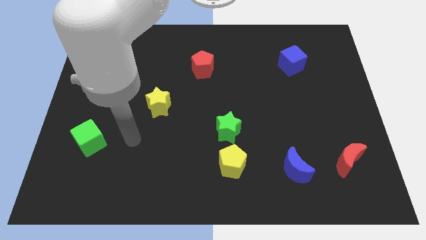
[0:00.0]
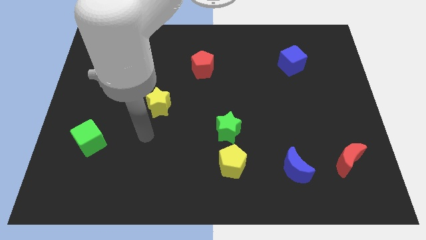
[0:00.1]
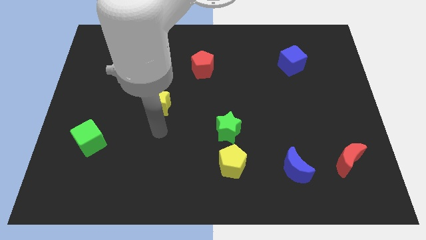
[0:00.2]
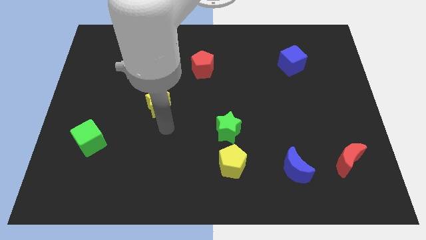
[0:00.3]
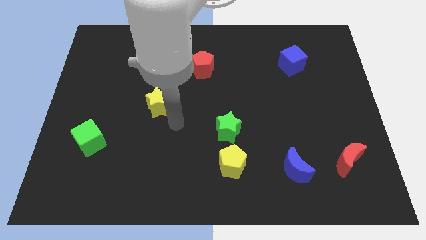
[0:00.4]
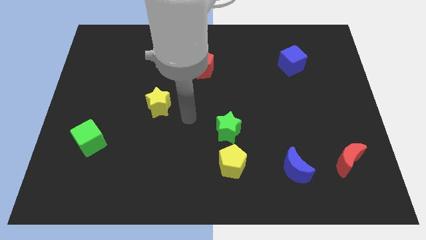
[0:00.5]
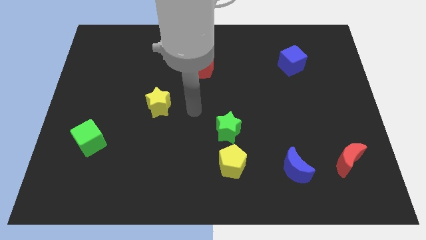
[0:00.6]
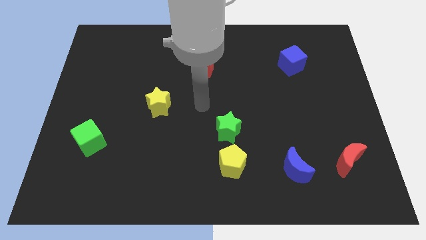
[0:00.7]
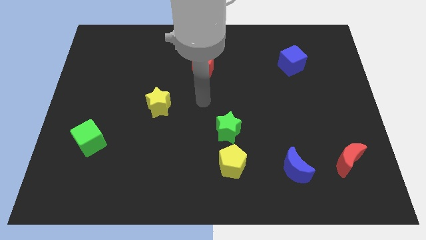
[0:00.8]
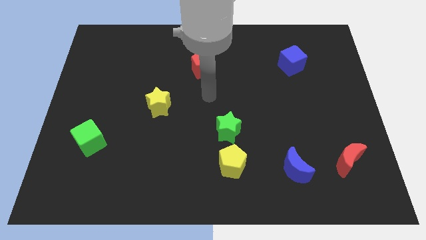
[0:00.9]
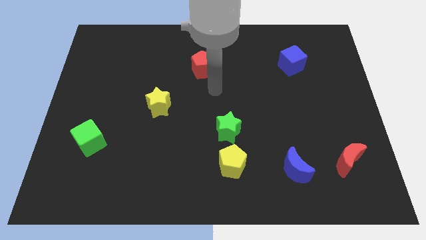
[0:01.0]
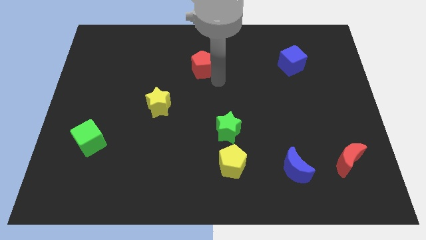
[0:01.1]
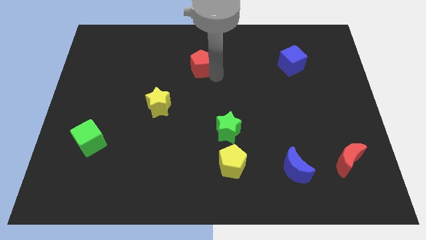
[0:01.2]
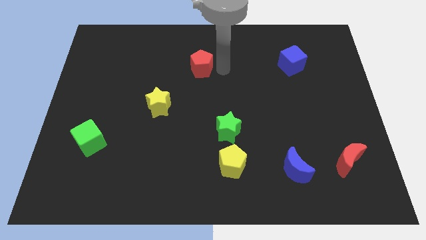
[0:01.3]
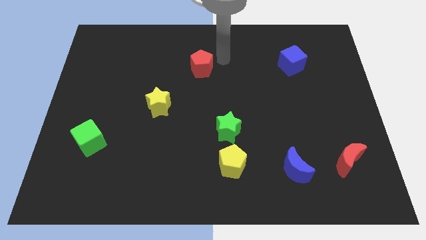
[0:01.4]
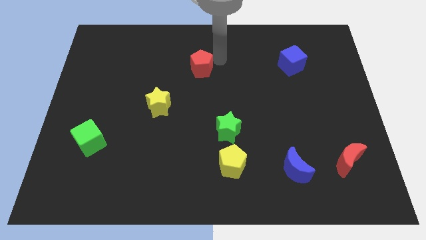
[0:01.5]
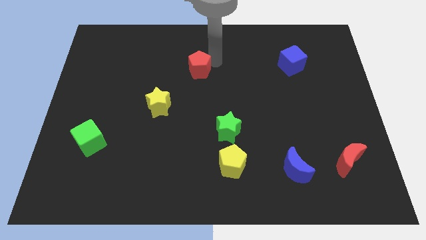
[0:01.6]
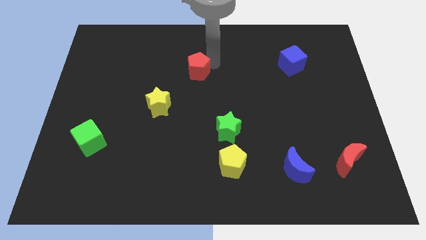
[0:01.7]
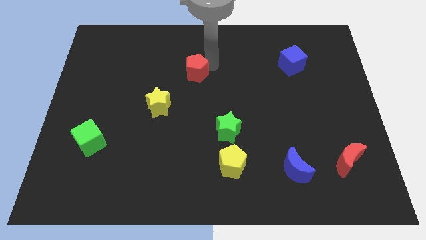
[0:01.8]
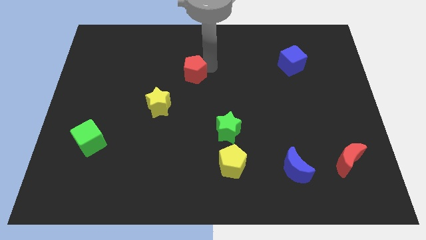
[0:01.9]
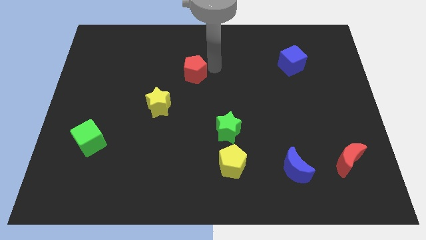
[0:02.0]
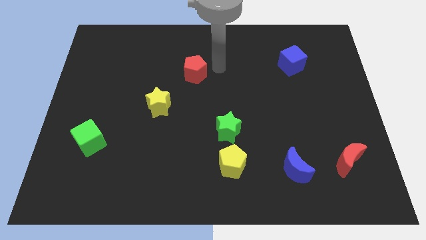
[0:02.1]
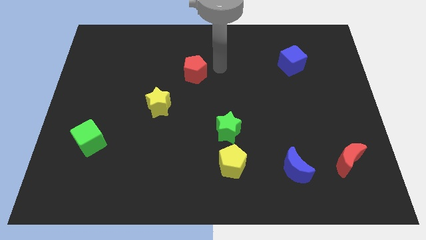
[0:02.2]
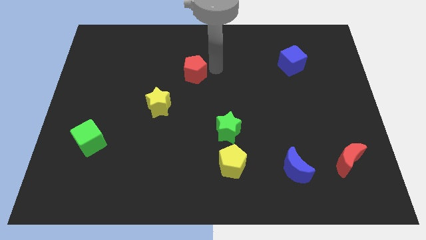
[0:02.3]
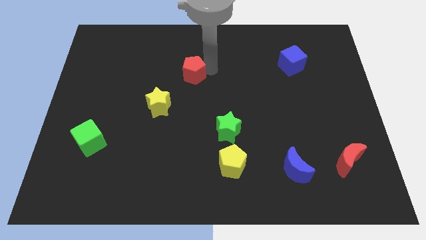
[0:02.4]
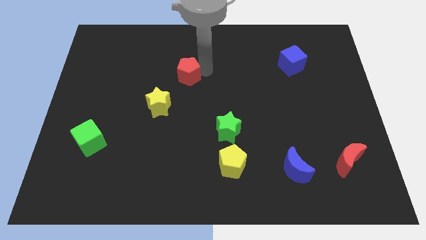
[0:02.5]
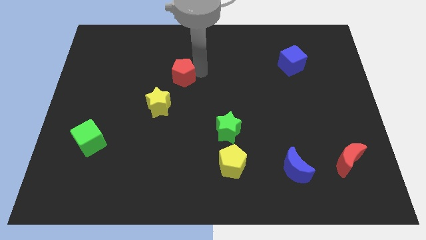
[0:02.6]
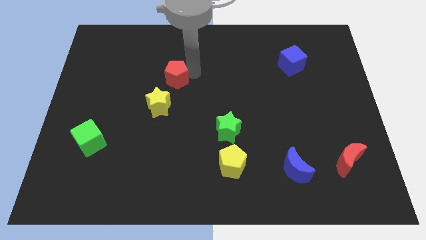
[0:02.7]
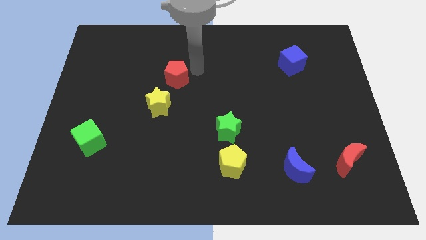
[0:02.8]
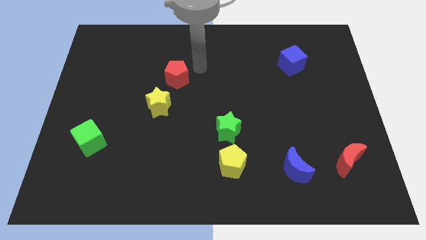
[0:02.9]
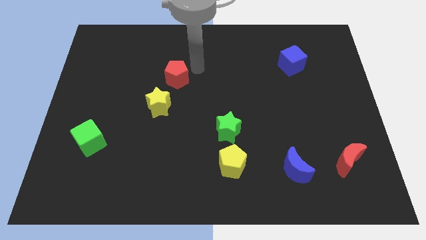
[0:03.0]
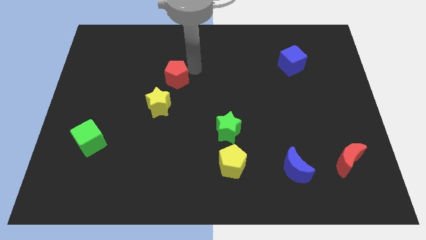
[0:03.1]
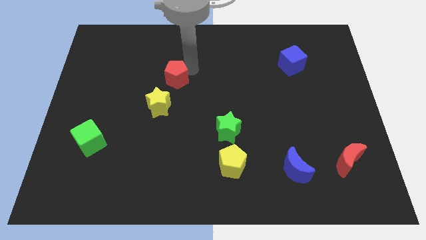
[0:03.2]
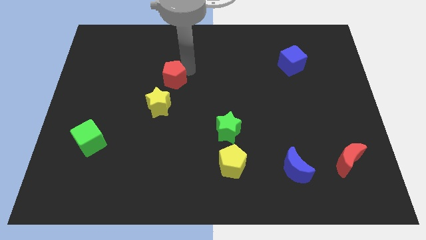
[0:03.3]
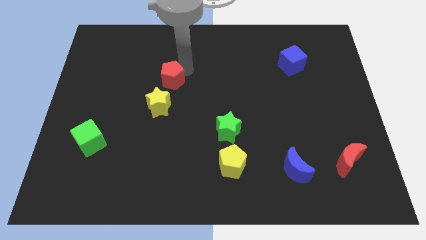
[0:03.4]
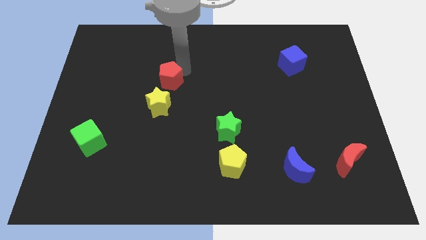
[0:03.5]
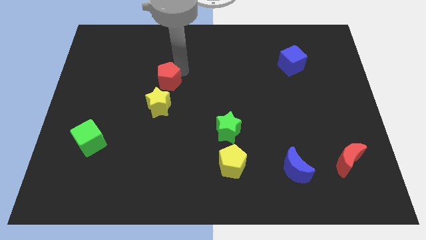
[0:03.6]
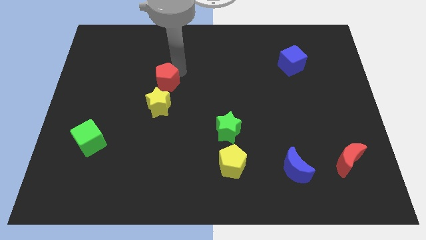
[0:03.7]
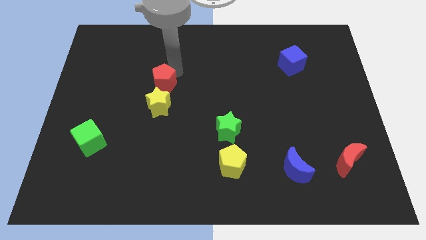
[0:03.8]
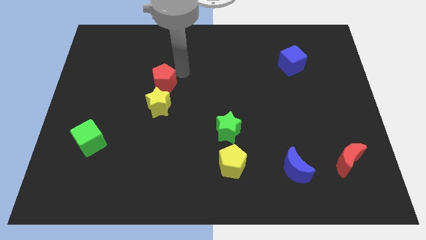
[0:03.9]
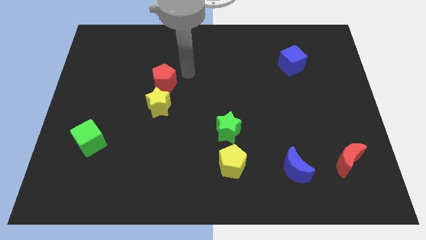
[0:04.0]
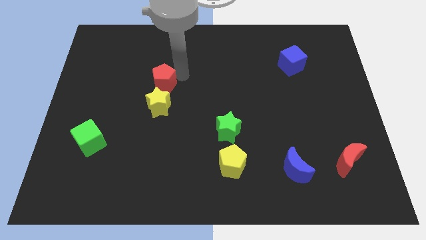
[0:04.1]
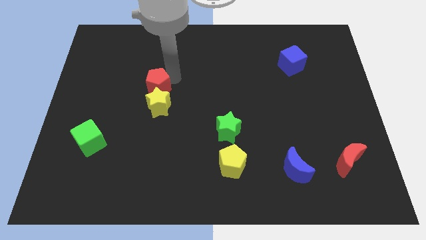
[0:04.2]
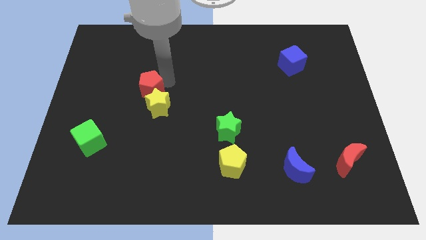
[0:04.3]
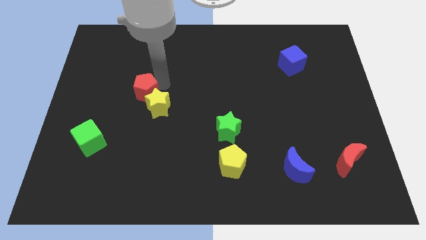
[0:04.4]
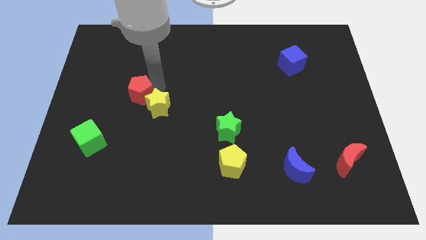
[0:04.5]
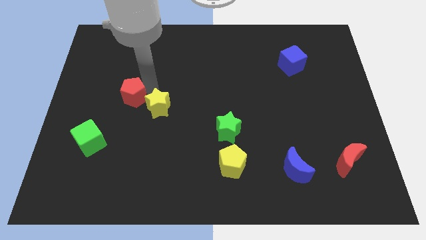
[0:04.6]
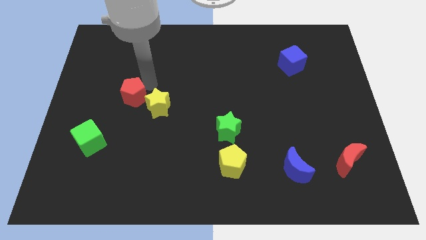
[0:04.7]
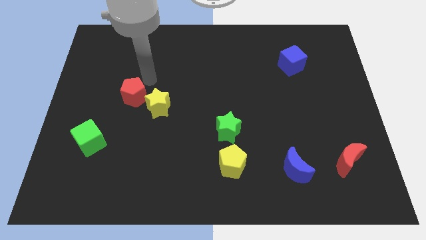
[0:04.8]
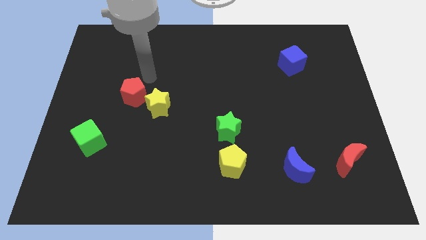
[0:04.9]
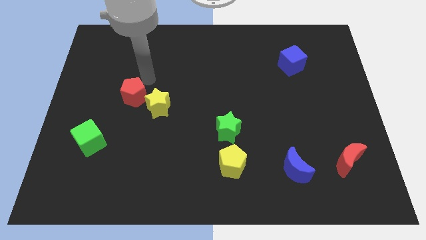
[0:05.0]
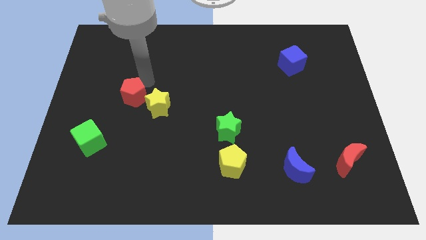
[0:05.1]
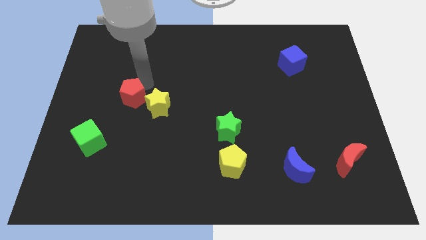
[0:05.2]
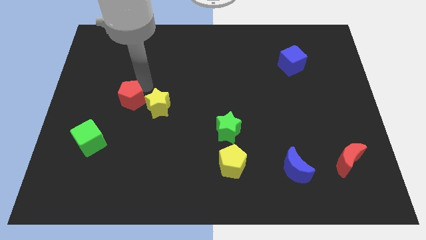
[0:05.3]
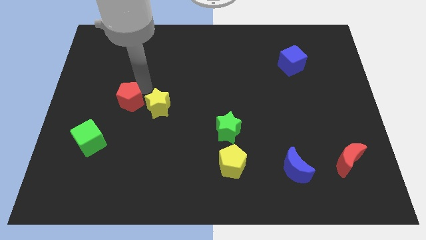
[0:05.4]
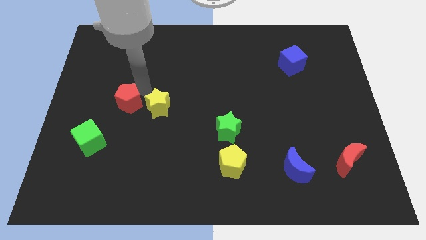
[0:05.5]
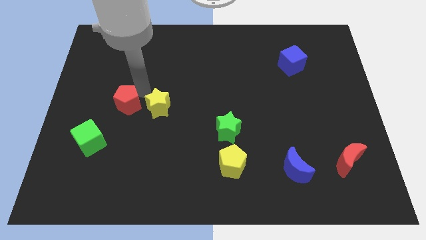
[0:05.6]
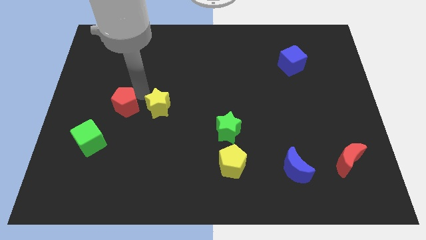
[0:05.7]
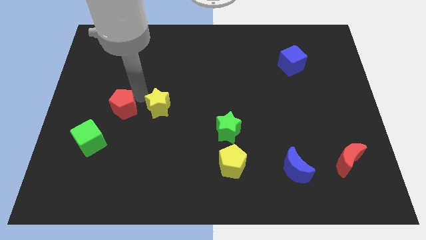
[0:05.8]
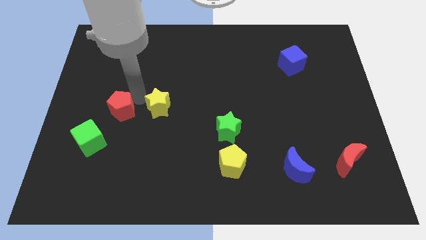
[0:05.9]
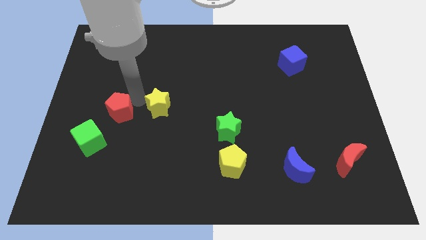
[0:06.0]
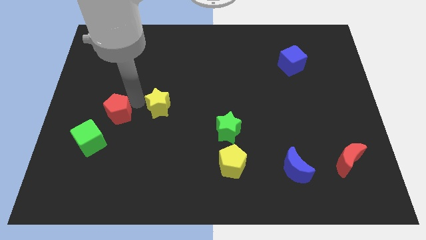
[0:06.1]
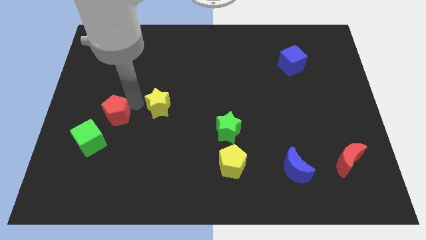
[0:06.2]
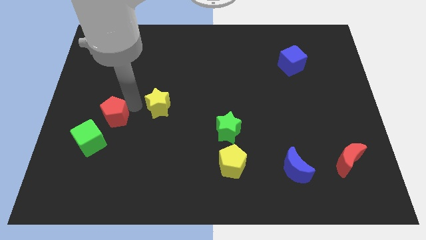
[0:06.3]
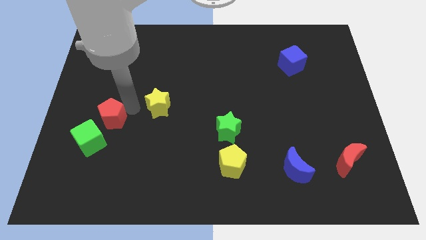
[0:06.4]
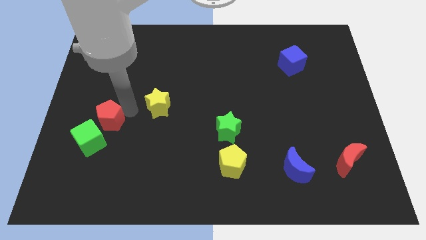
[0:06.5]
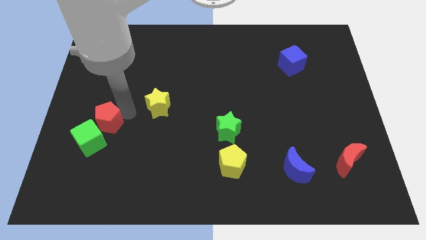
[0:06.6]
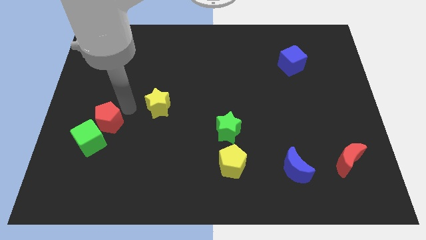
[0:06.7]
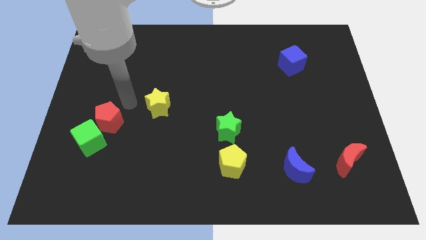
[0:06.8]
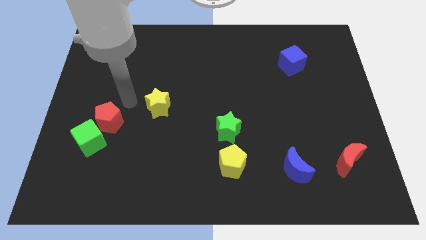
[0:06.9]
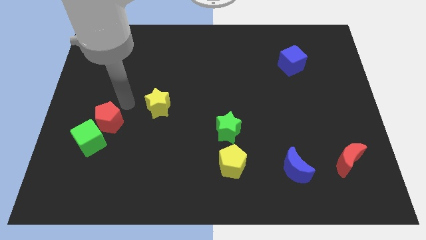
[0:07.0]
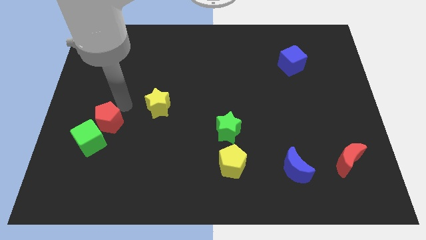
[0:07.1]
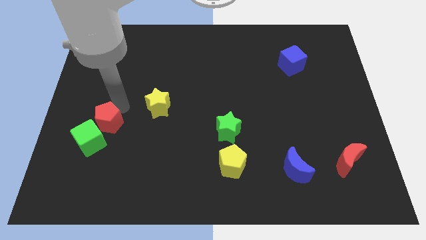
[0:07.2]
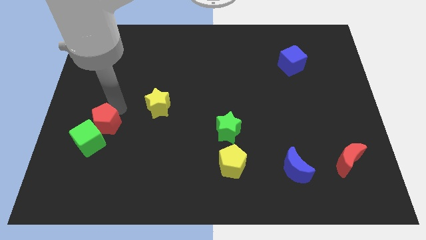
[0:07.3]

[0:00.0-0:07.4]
slide the red pentagon to the green cube
